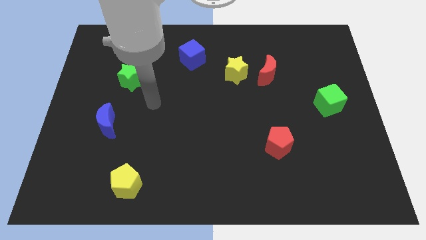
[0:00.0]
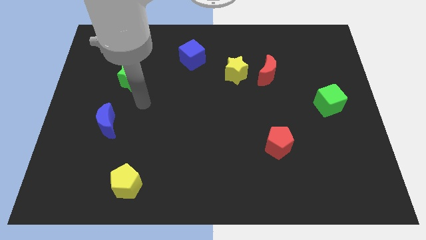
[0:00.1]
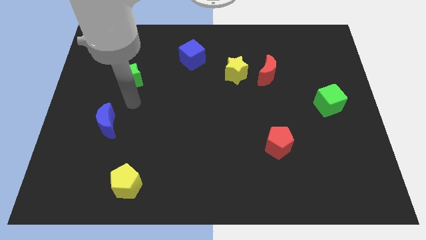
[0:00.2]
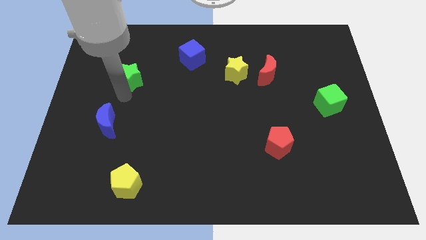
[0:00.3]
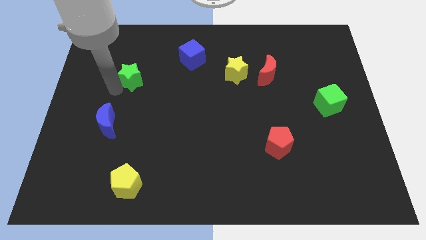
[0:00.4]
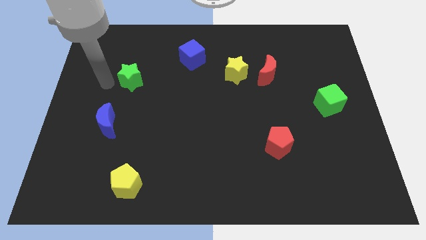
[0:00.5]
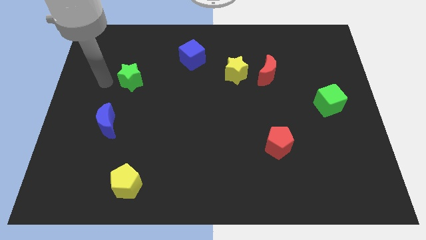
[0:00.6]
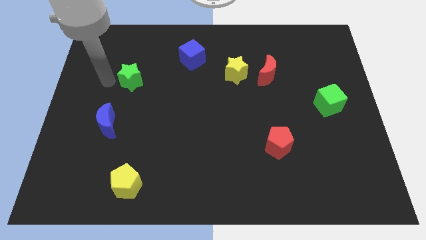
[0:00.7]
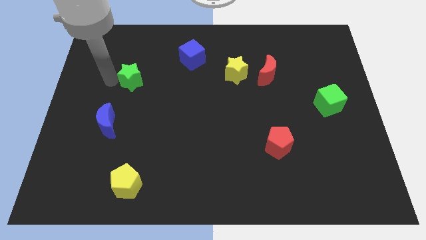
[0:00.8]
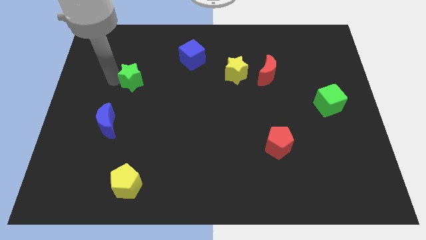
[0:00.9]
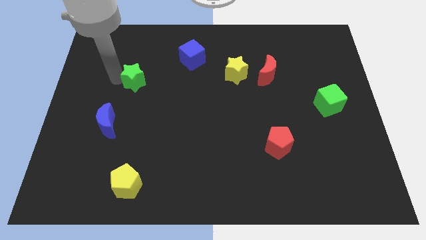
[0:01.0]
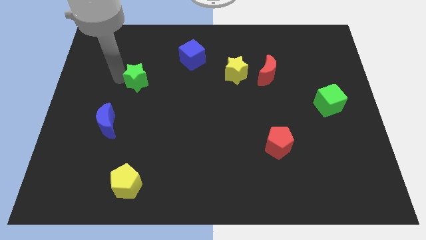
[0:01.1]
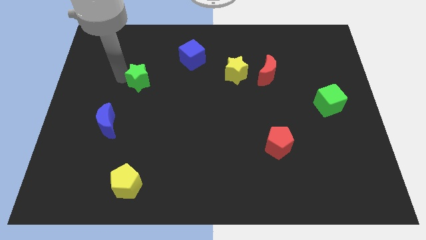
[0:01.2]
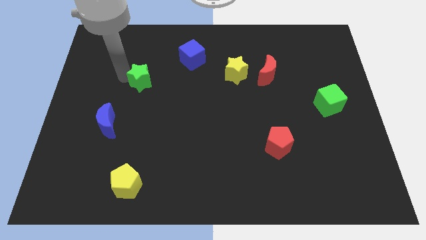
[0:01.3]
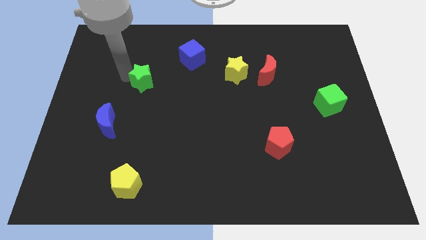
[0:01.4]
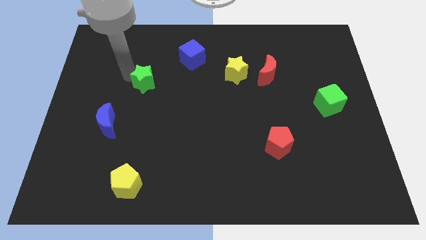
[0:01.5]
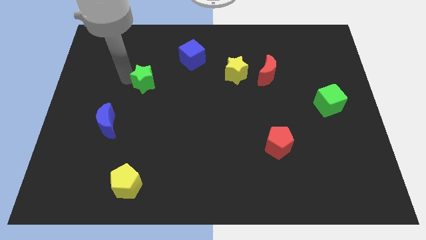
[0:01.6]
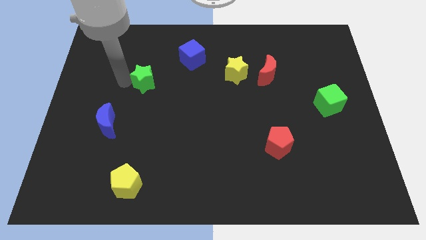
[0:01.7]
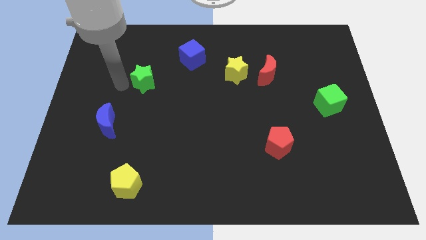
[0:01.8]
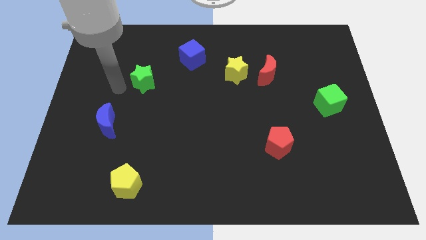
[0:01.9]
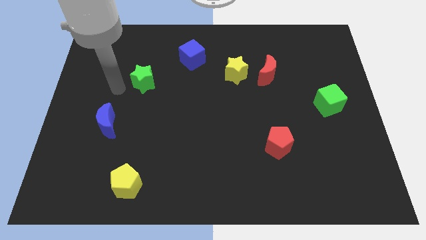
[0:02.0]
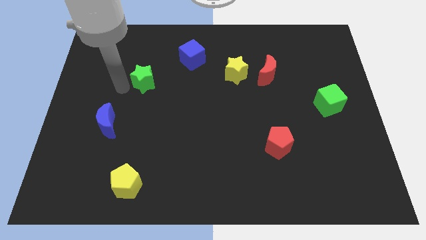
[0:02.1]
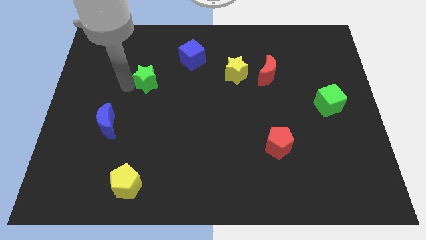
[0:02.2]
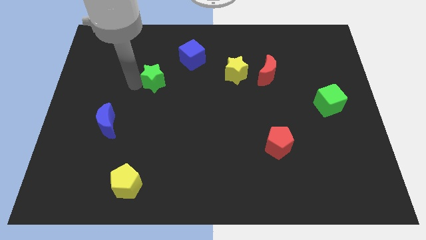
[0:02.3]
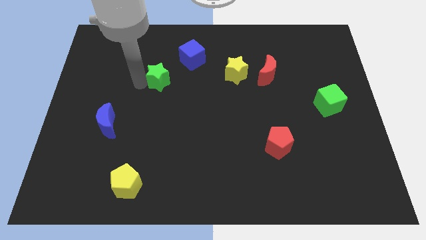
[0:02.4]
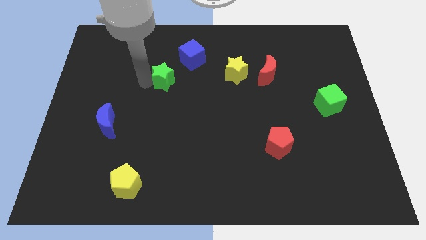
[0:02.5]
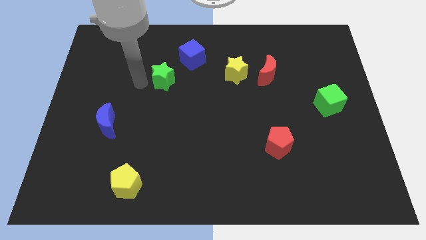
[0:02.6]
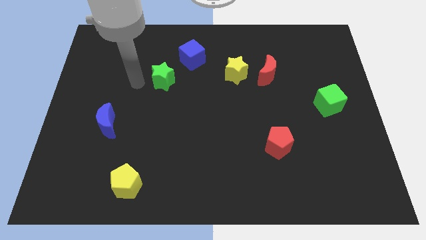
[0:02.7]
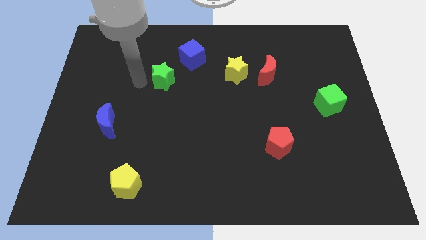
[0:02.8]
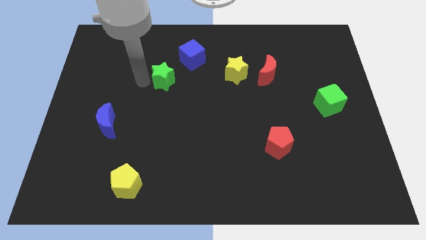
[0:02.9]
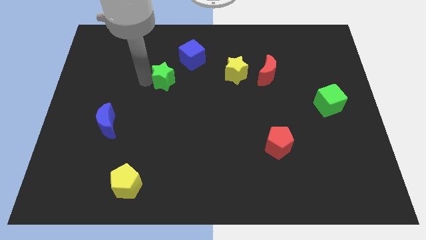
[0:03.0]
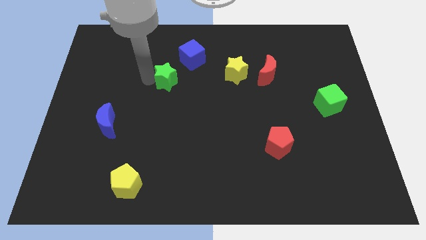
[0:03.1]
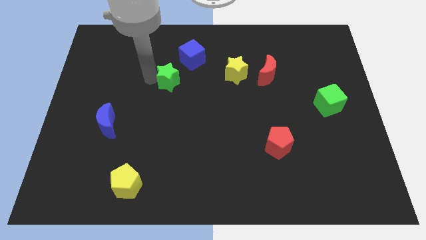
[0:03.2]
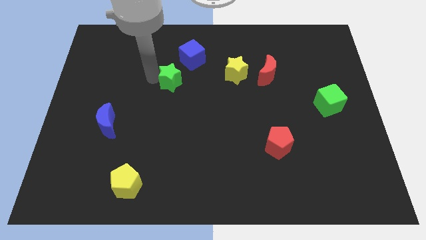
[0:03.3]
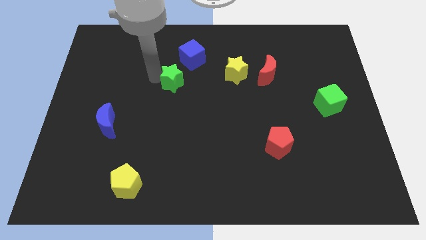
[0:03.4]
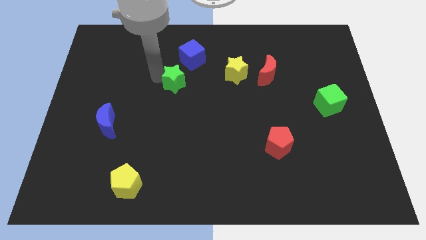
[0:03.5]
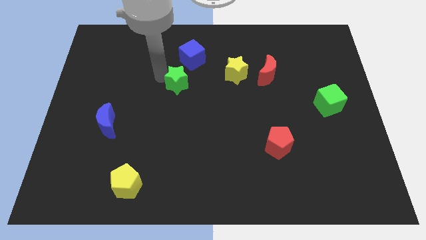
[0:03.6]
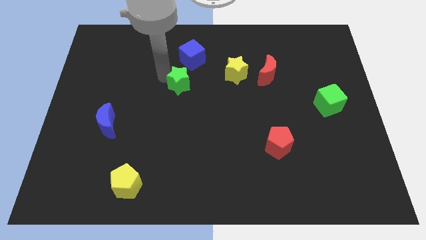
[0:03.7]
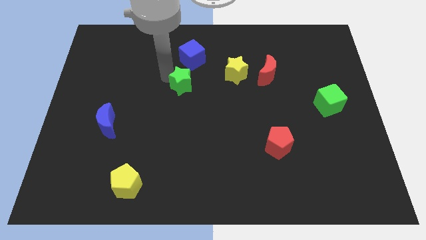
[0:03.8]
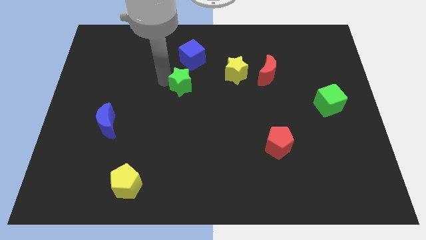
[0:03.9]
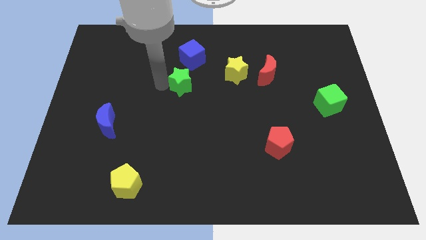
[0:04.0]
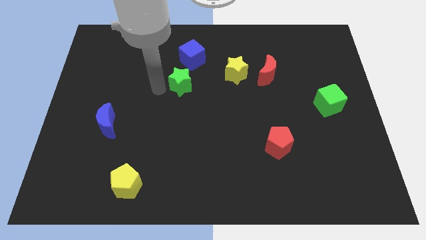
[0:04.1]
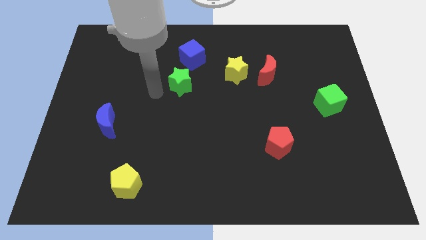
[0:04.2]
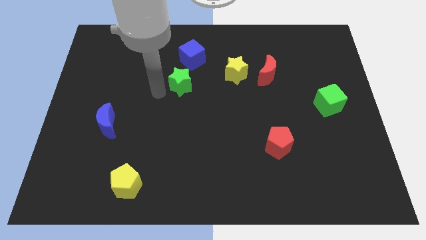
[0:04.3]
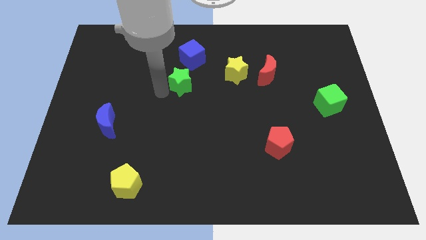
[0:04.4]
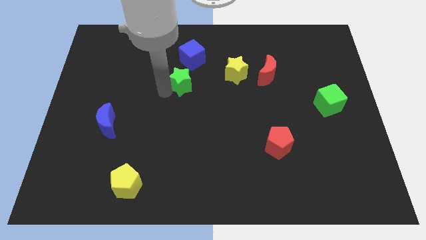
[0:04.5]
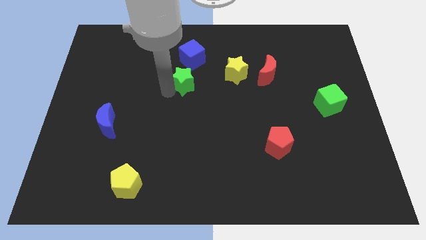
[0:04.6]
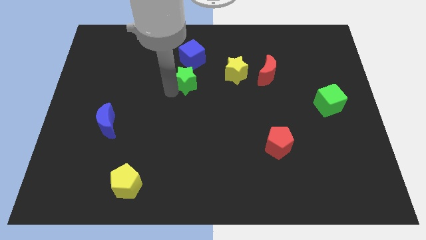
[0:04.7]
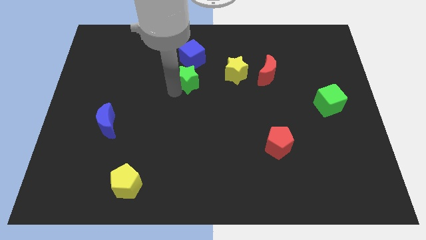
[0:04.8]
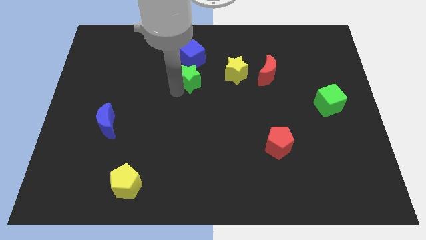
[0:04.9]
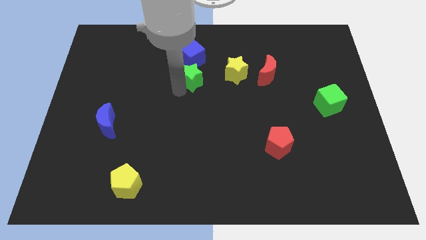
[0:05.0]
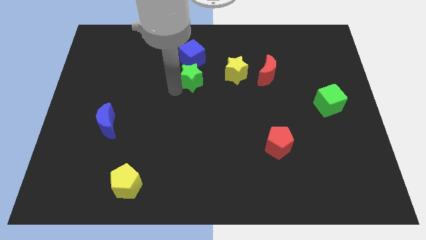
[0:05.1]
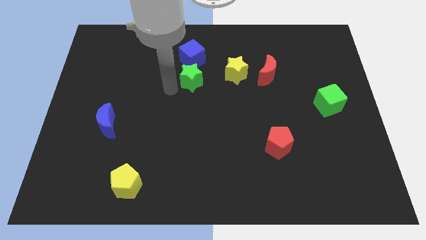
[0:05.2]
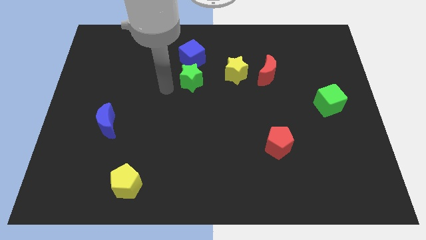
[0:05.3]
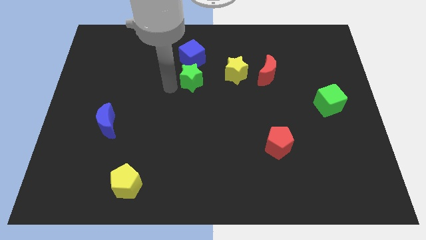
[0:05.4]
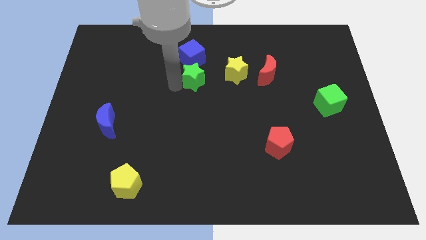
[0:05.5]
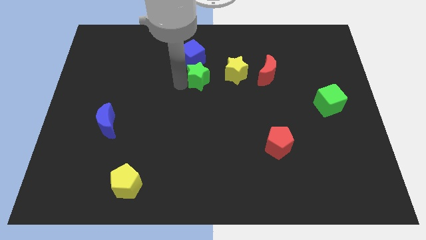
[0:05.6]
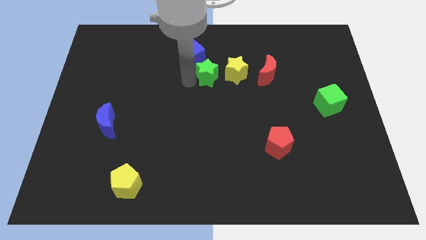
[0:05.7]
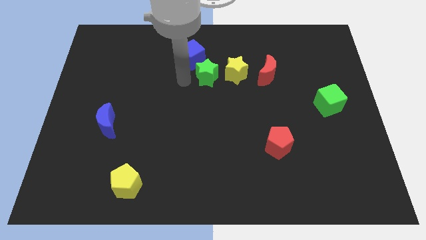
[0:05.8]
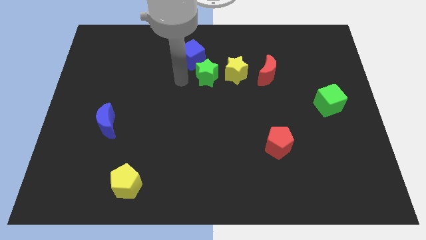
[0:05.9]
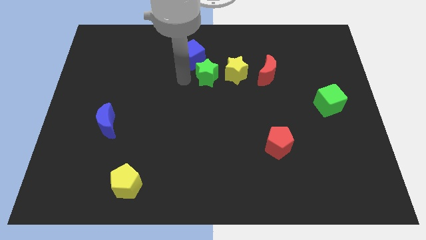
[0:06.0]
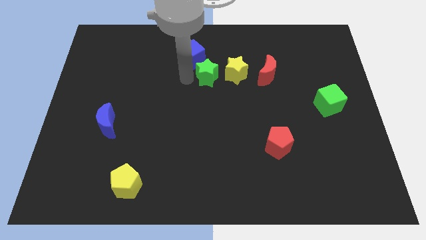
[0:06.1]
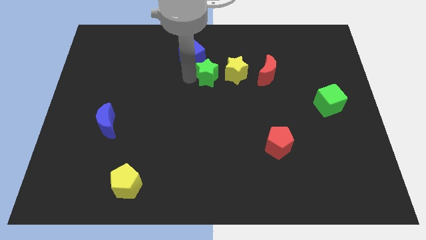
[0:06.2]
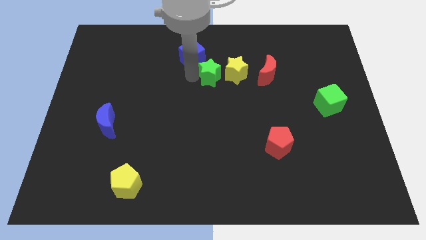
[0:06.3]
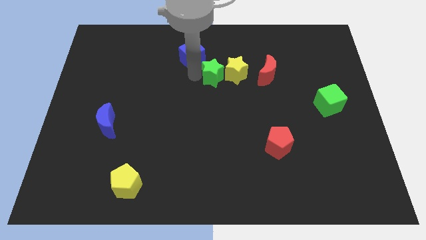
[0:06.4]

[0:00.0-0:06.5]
move the green star next to the yellow star
